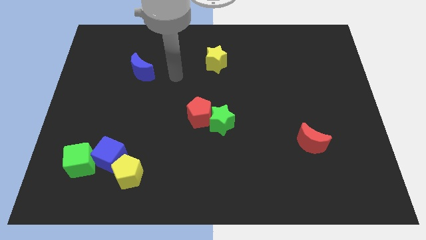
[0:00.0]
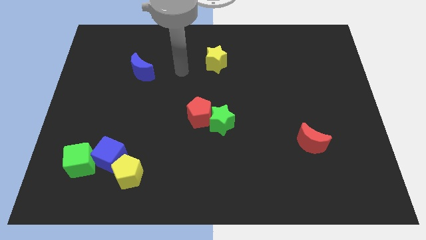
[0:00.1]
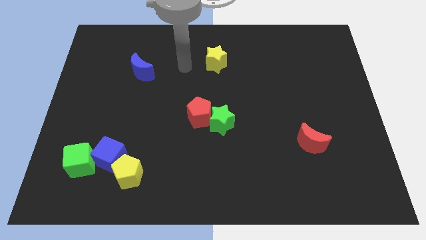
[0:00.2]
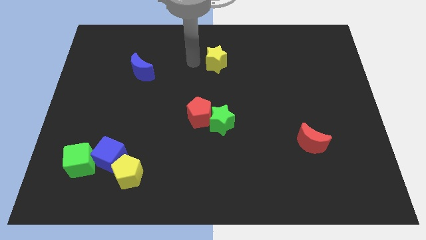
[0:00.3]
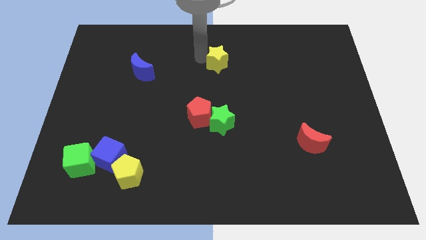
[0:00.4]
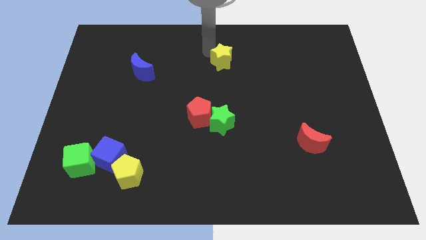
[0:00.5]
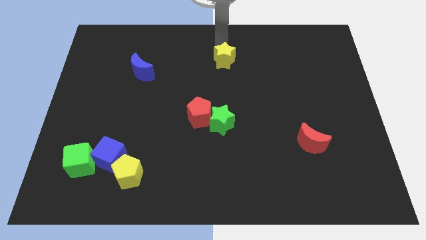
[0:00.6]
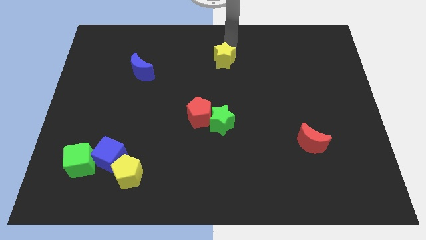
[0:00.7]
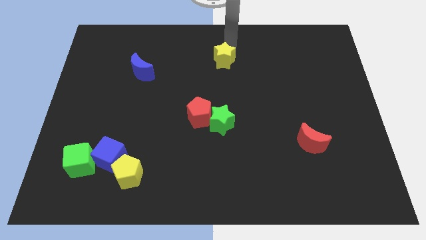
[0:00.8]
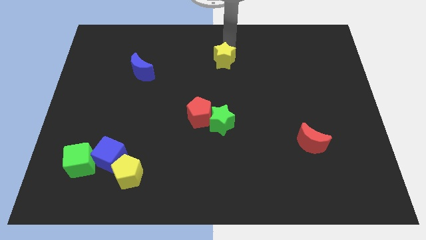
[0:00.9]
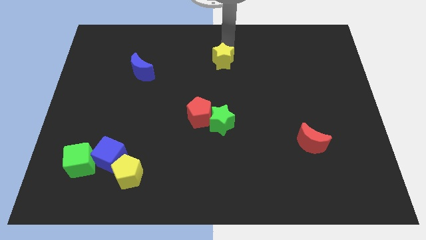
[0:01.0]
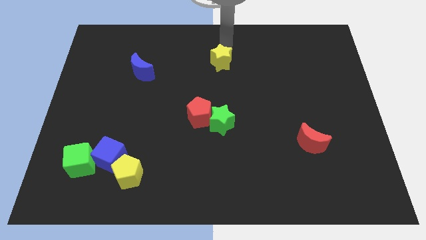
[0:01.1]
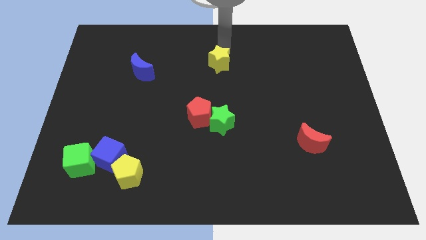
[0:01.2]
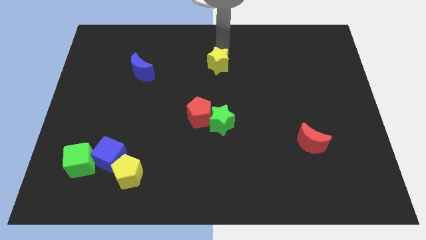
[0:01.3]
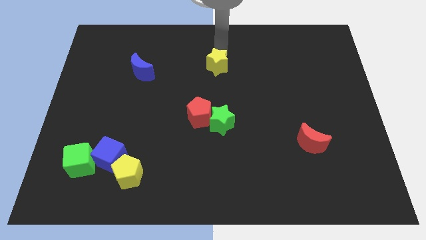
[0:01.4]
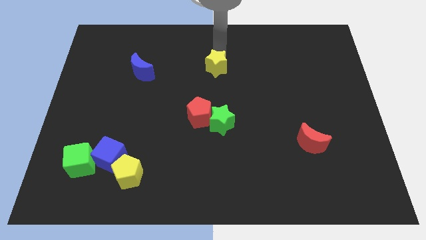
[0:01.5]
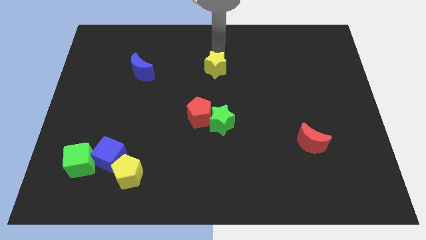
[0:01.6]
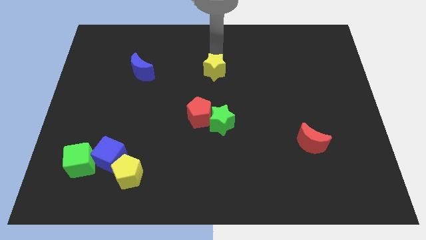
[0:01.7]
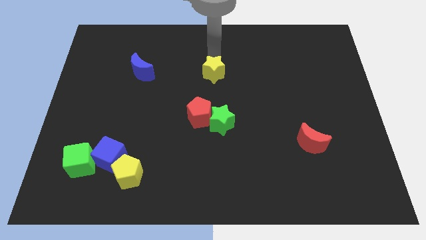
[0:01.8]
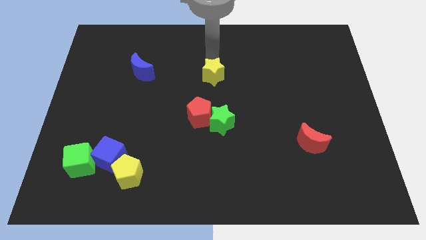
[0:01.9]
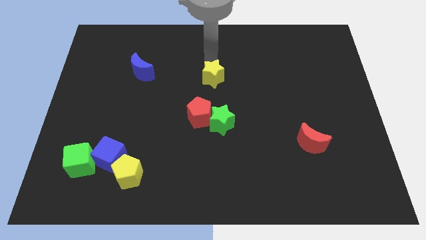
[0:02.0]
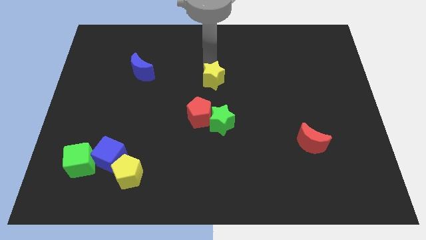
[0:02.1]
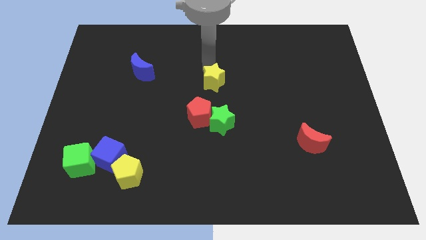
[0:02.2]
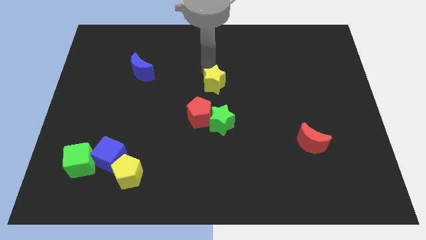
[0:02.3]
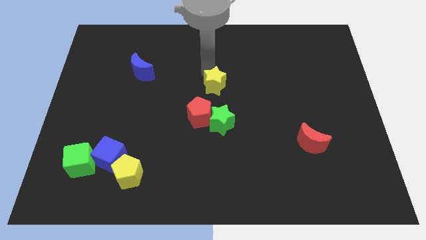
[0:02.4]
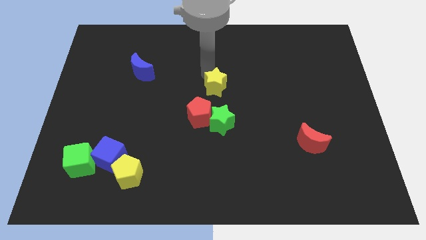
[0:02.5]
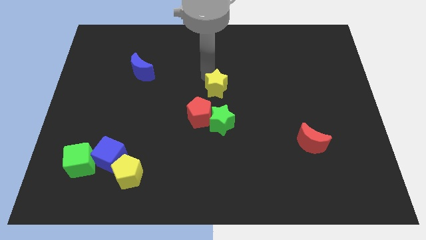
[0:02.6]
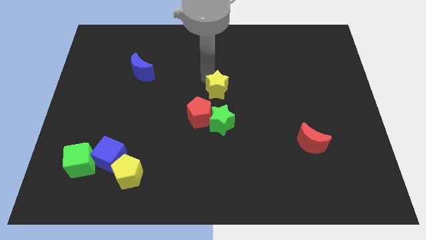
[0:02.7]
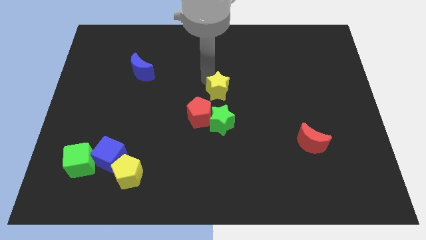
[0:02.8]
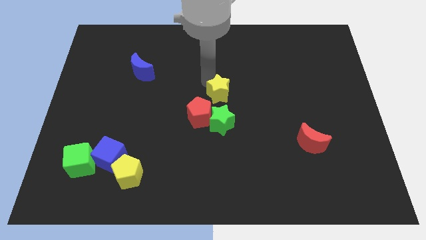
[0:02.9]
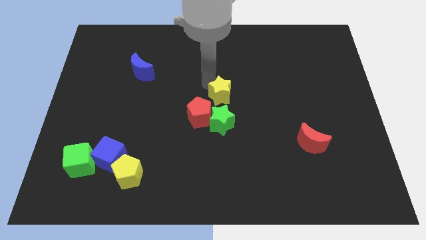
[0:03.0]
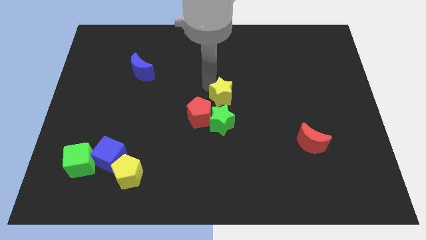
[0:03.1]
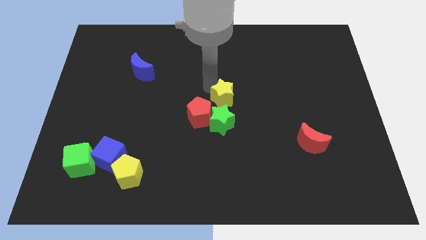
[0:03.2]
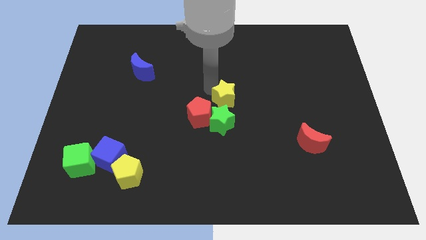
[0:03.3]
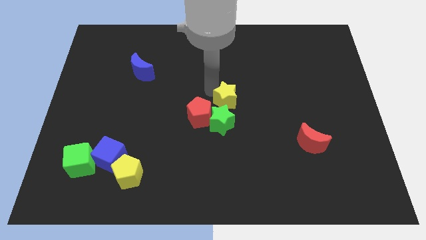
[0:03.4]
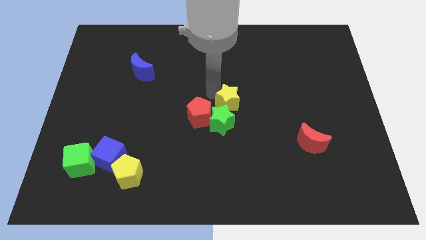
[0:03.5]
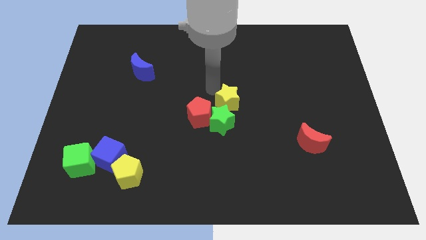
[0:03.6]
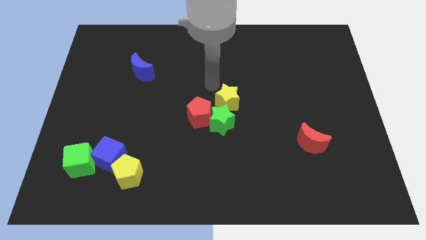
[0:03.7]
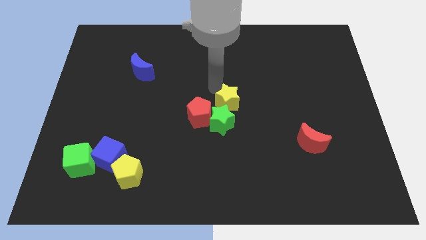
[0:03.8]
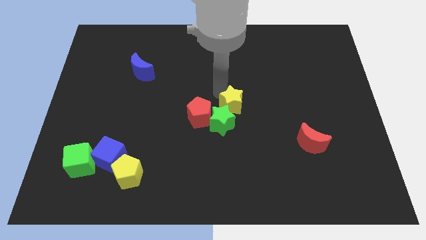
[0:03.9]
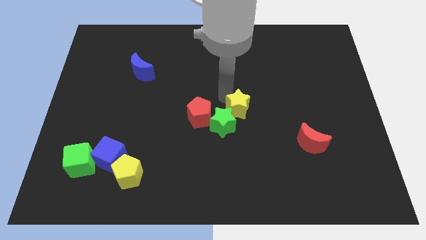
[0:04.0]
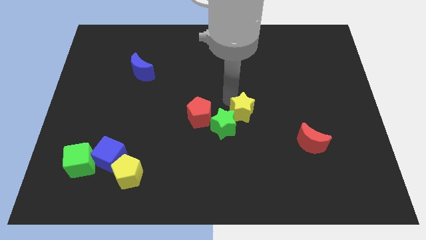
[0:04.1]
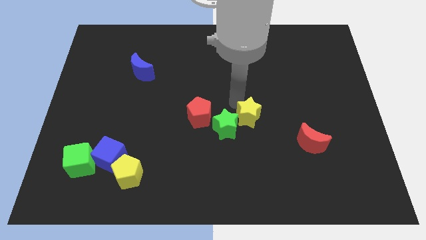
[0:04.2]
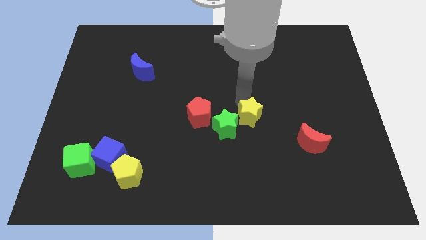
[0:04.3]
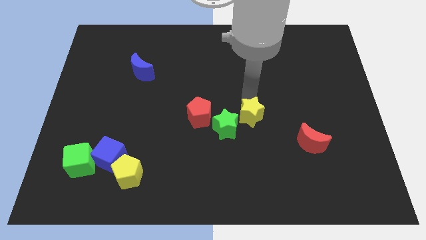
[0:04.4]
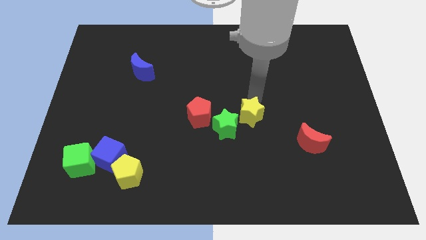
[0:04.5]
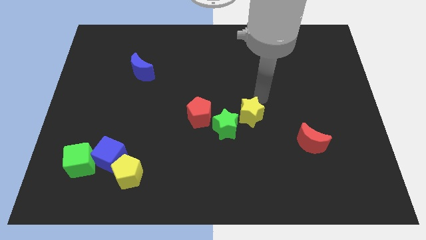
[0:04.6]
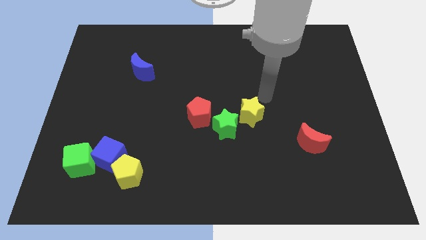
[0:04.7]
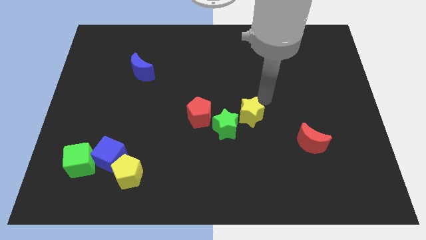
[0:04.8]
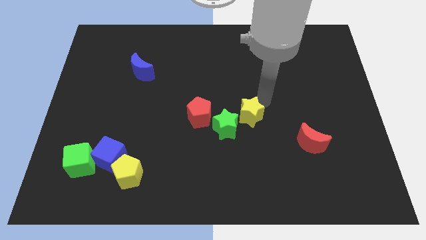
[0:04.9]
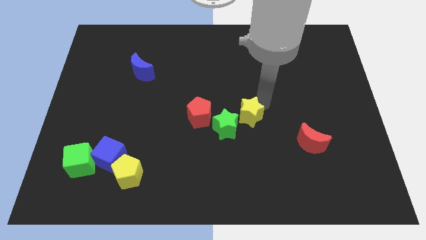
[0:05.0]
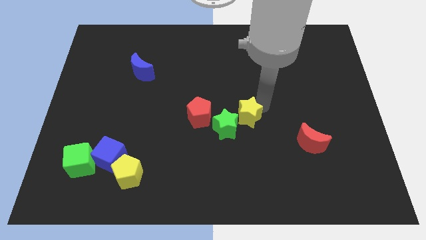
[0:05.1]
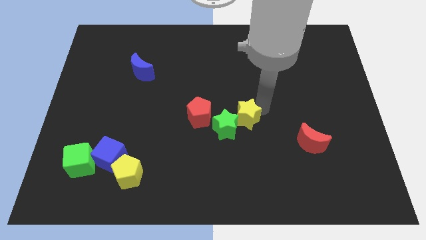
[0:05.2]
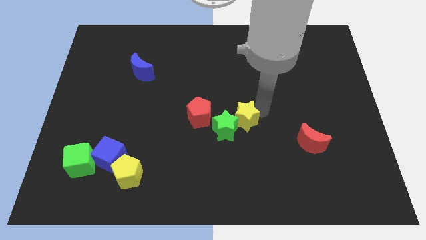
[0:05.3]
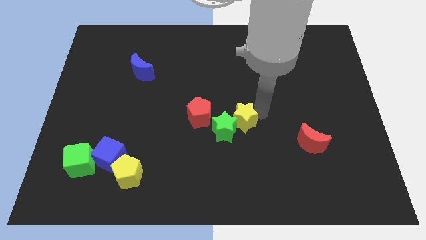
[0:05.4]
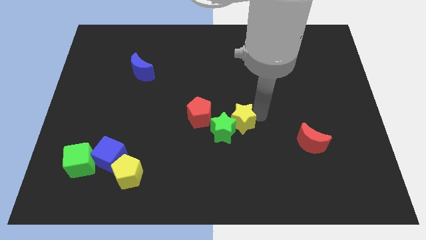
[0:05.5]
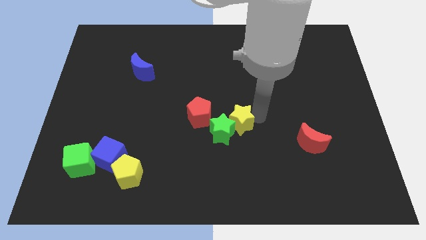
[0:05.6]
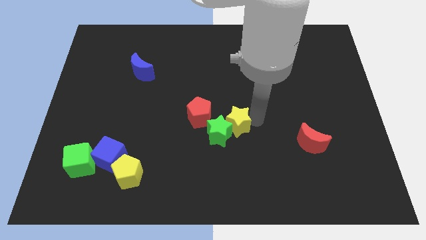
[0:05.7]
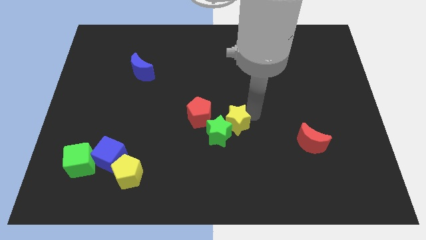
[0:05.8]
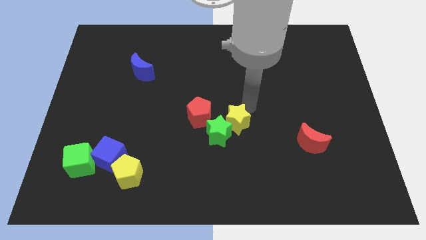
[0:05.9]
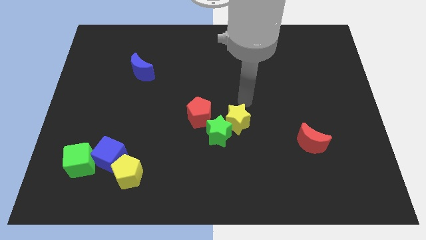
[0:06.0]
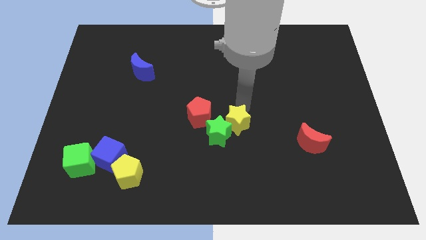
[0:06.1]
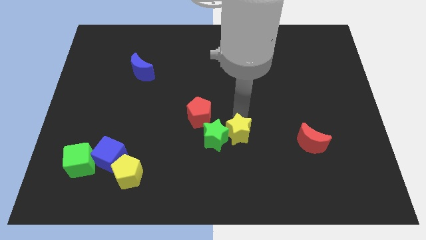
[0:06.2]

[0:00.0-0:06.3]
move the yellow star down

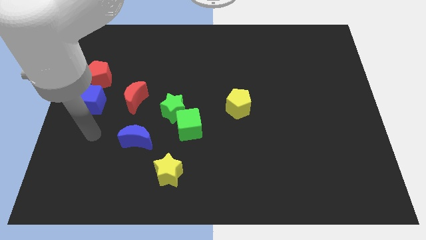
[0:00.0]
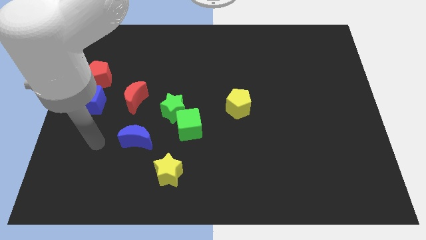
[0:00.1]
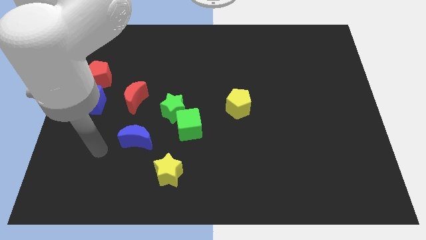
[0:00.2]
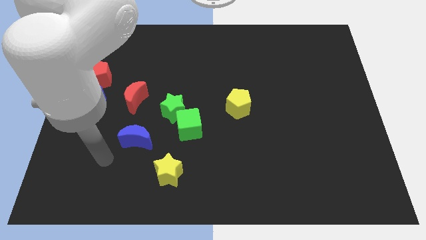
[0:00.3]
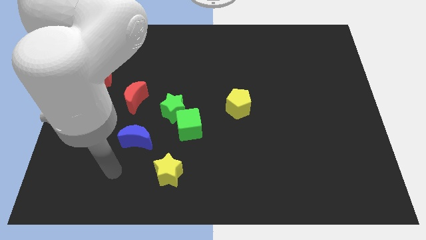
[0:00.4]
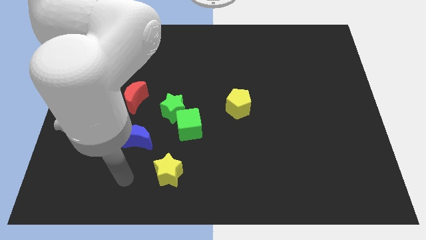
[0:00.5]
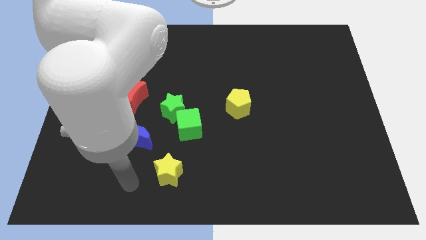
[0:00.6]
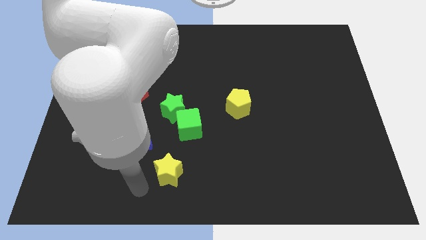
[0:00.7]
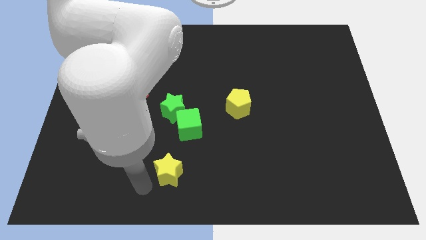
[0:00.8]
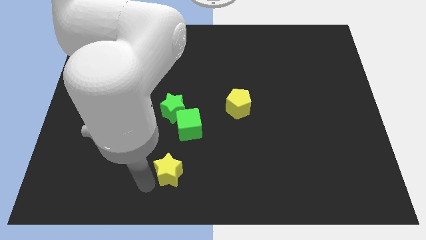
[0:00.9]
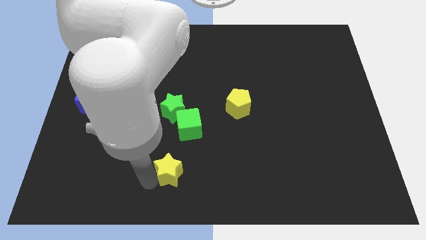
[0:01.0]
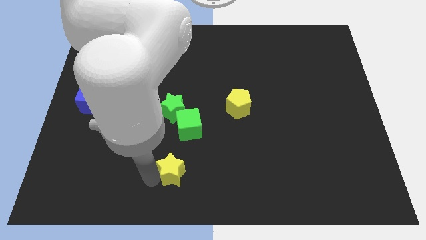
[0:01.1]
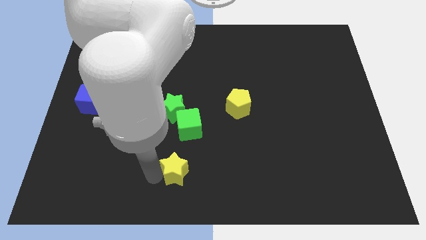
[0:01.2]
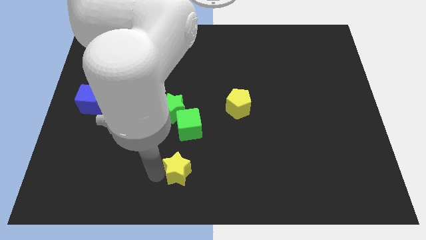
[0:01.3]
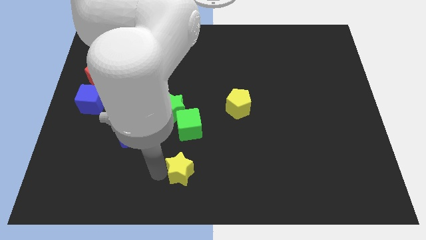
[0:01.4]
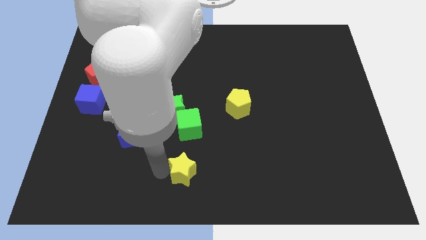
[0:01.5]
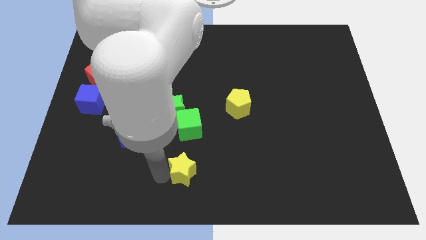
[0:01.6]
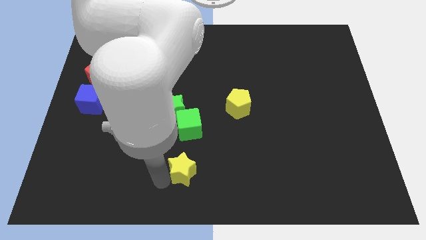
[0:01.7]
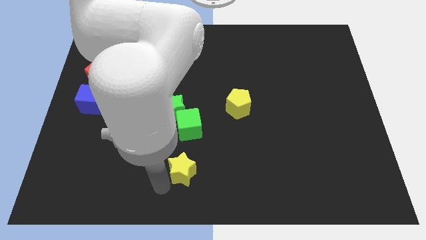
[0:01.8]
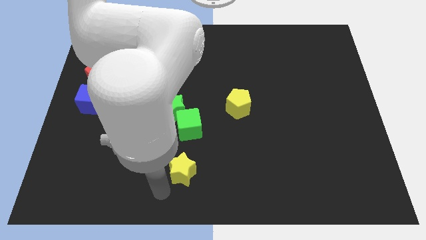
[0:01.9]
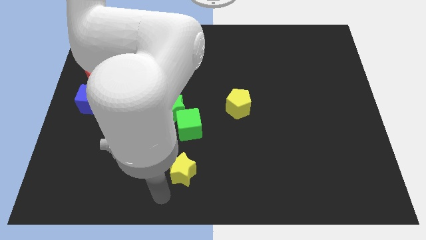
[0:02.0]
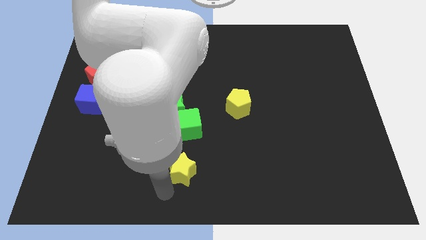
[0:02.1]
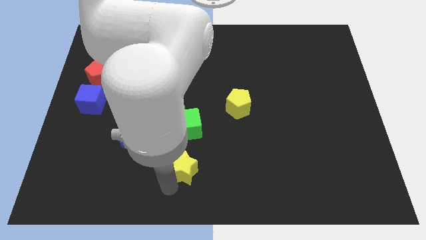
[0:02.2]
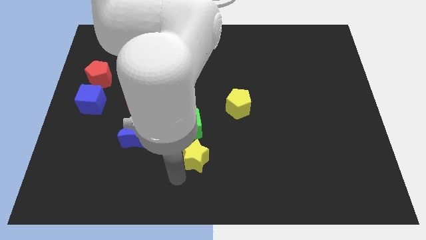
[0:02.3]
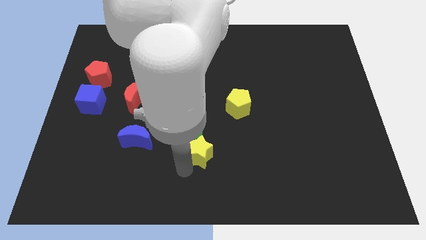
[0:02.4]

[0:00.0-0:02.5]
push the yellow star slightly diagonally up and right
